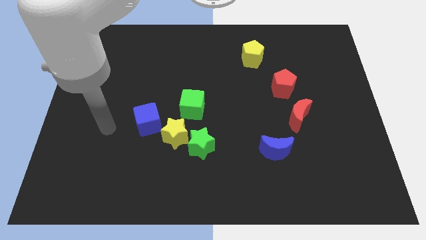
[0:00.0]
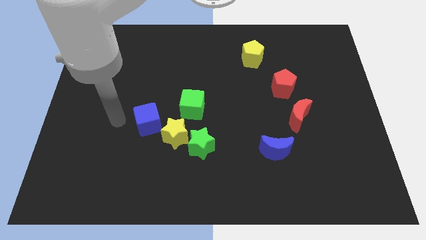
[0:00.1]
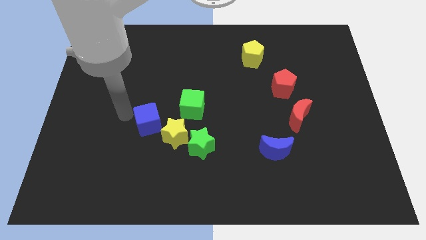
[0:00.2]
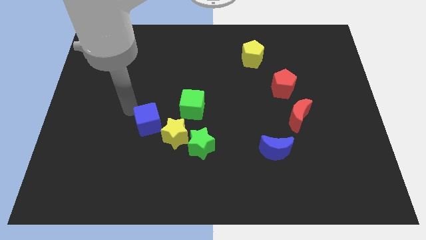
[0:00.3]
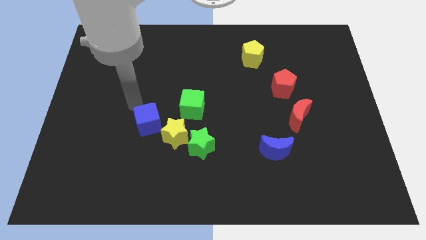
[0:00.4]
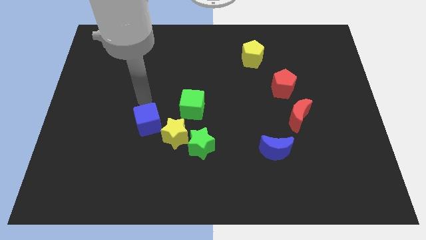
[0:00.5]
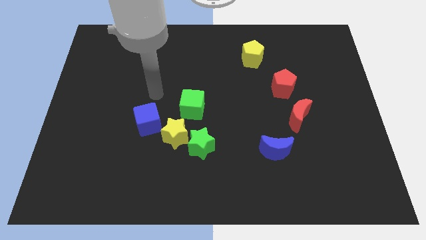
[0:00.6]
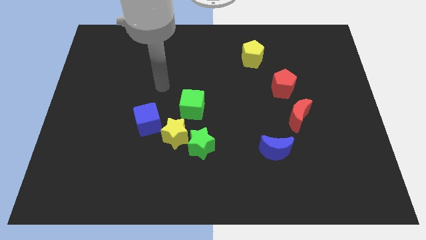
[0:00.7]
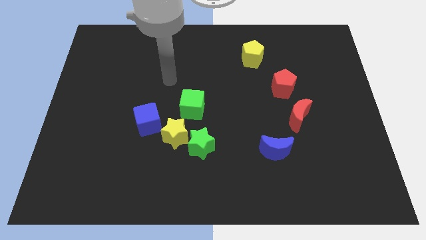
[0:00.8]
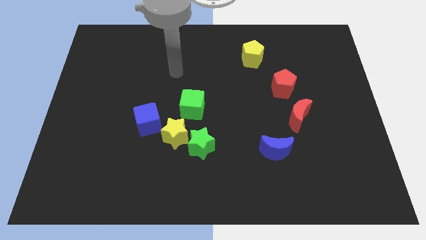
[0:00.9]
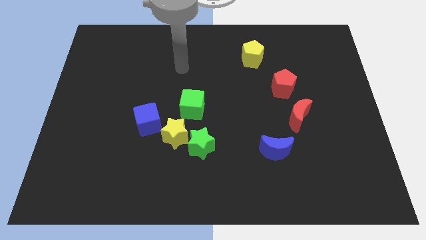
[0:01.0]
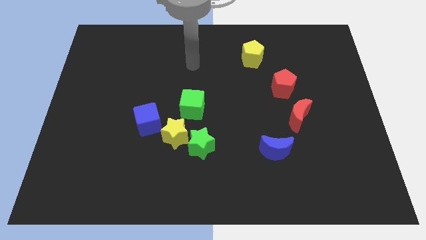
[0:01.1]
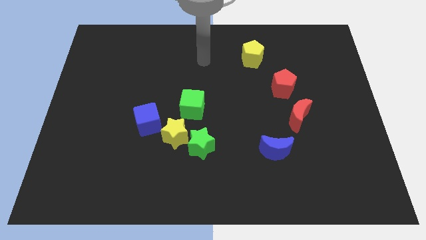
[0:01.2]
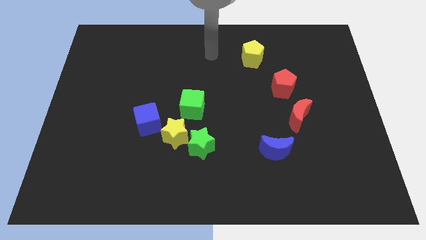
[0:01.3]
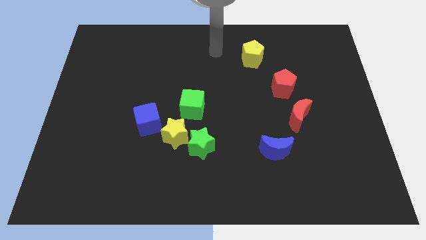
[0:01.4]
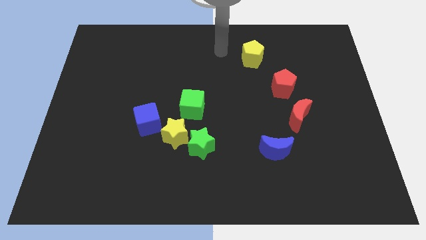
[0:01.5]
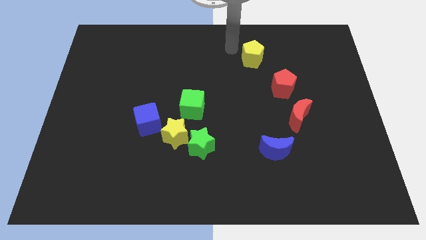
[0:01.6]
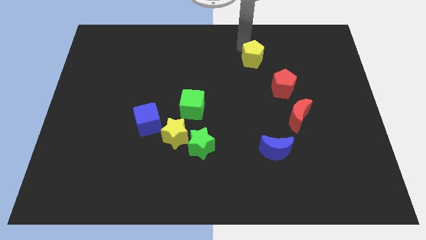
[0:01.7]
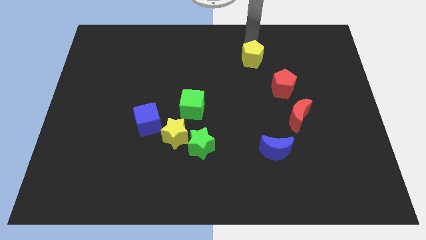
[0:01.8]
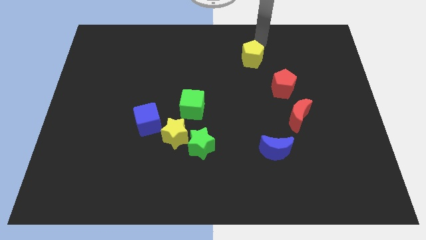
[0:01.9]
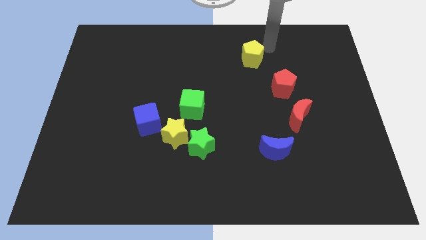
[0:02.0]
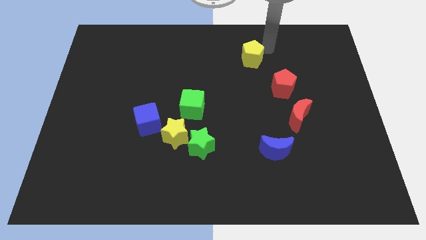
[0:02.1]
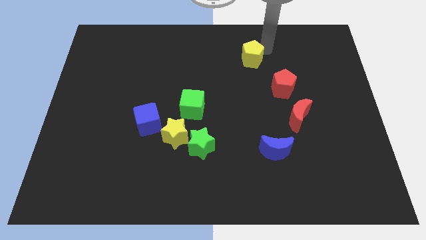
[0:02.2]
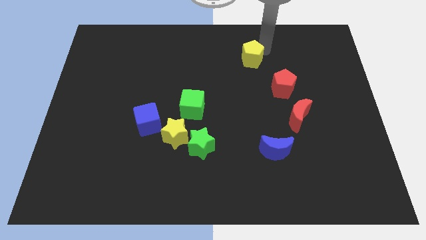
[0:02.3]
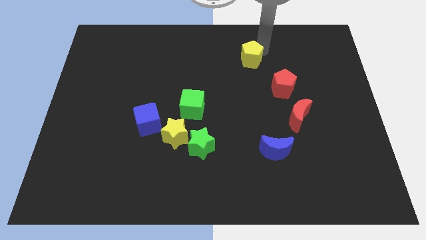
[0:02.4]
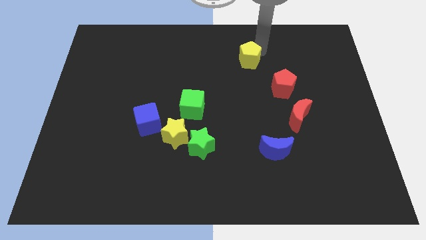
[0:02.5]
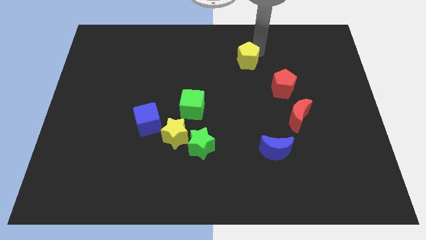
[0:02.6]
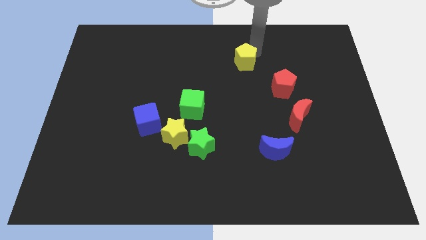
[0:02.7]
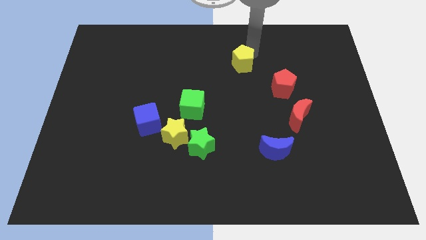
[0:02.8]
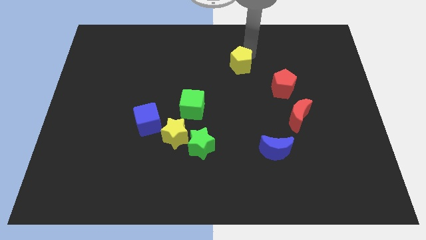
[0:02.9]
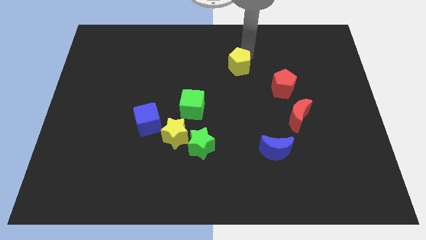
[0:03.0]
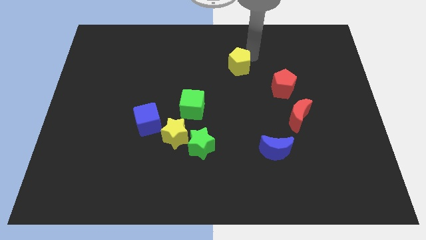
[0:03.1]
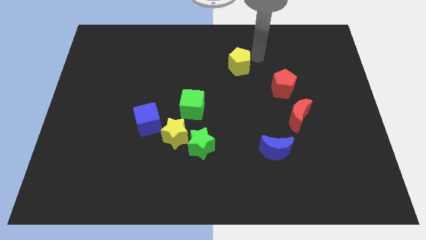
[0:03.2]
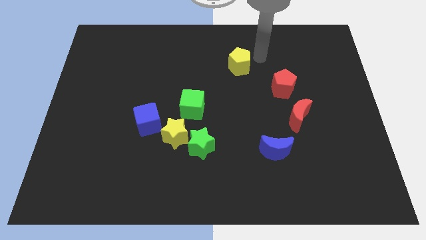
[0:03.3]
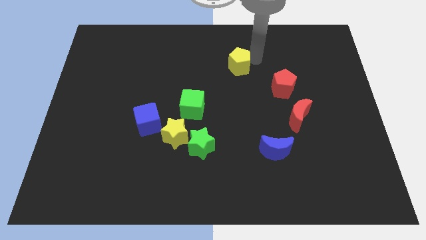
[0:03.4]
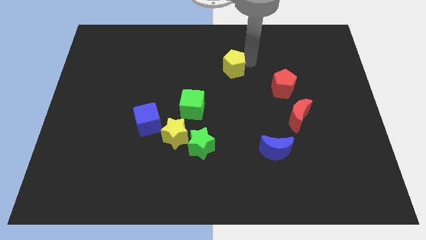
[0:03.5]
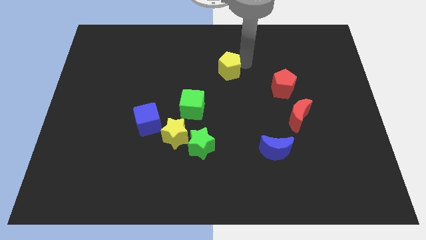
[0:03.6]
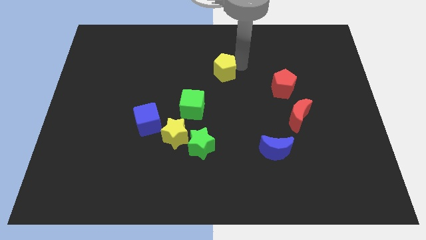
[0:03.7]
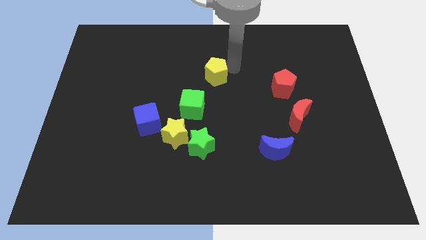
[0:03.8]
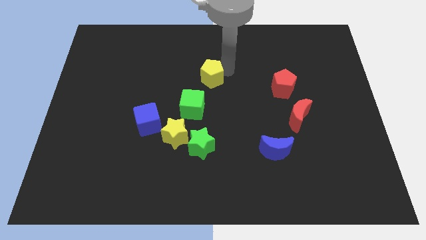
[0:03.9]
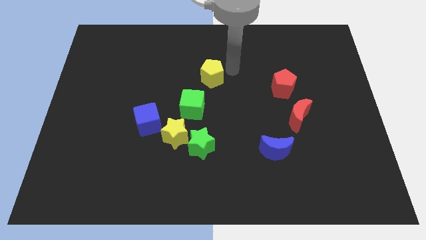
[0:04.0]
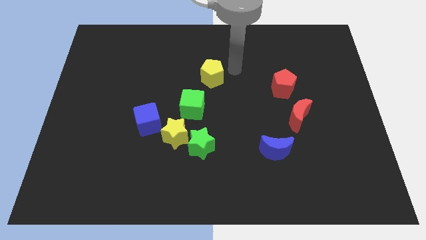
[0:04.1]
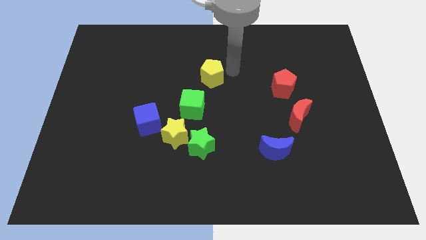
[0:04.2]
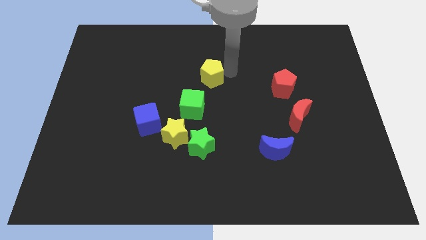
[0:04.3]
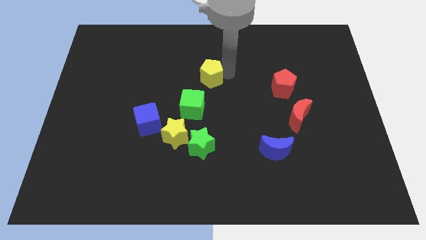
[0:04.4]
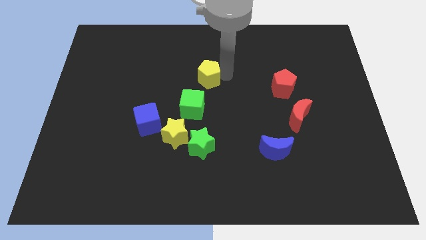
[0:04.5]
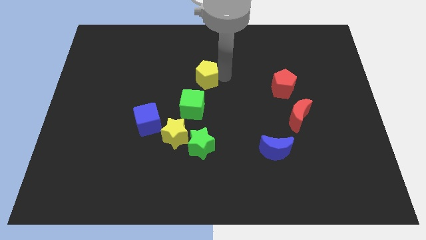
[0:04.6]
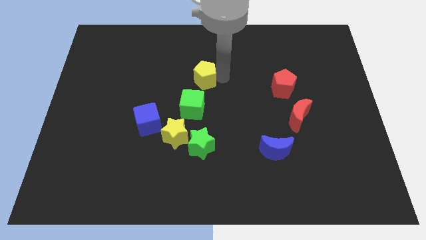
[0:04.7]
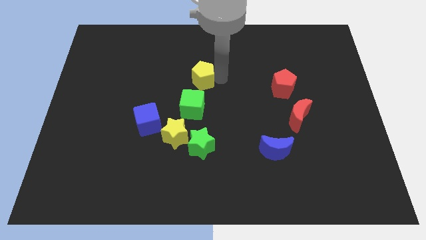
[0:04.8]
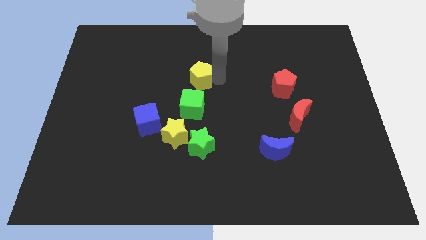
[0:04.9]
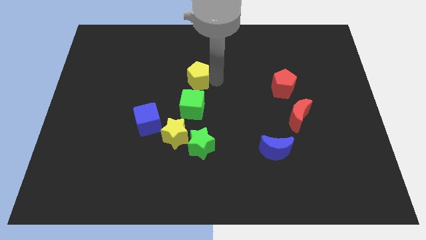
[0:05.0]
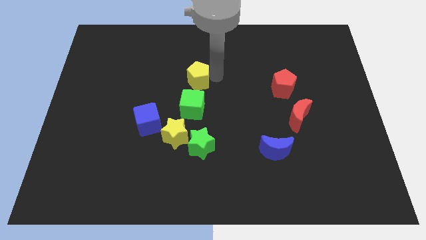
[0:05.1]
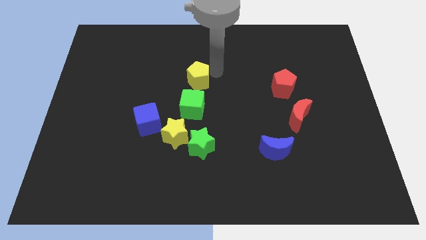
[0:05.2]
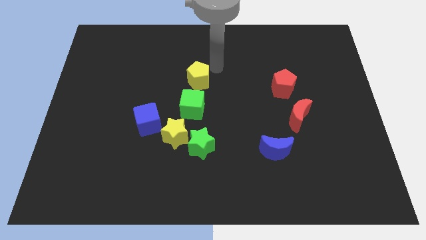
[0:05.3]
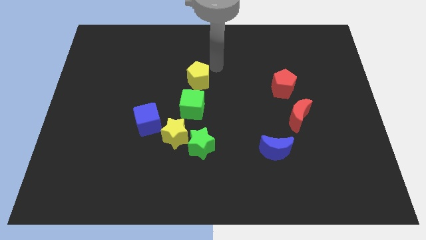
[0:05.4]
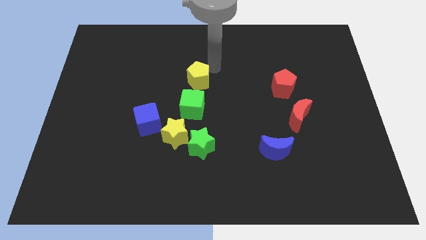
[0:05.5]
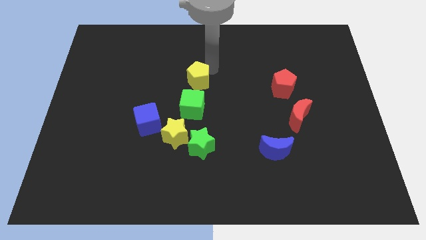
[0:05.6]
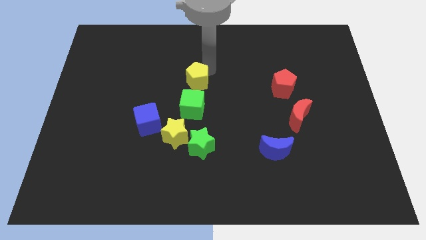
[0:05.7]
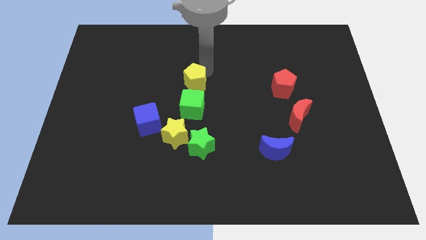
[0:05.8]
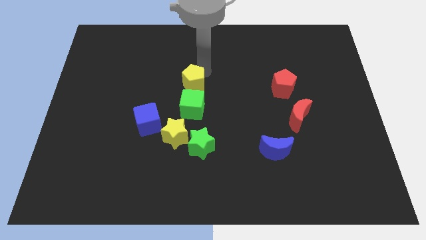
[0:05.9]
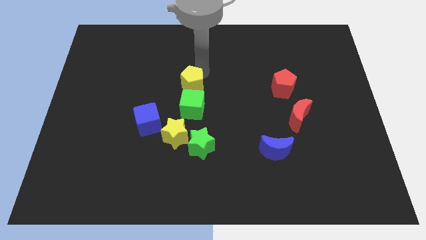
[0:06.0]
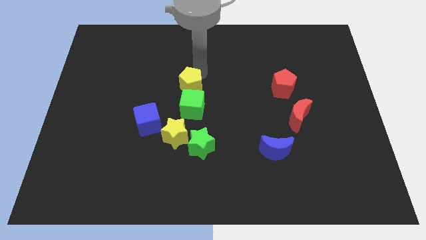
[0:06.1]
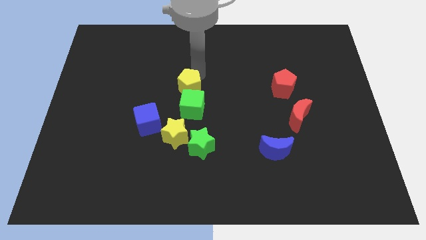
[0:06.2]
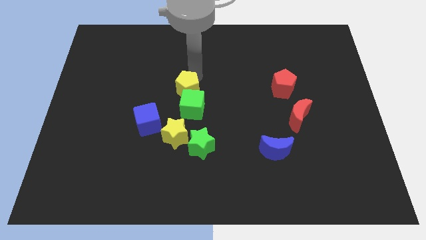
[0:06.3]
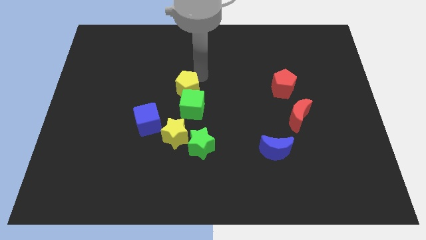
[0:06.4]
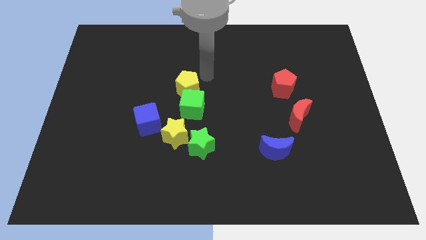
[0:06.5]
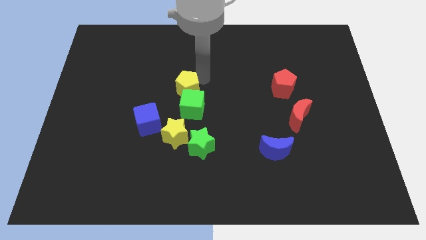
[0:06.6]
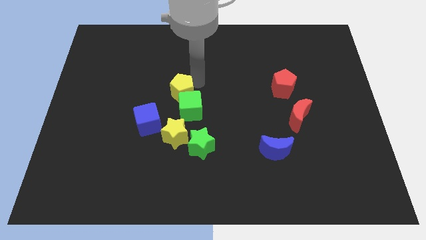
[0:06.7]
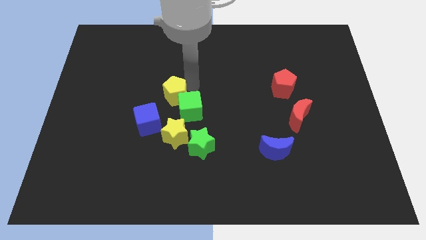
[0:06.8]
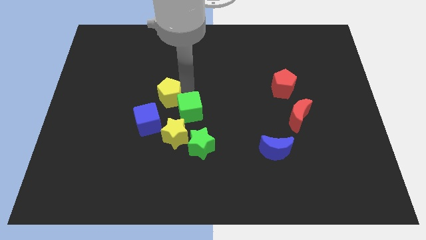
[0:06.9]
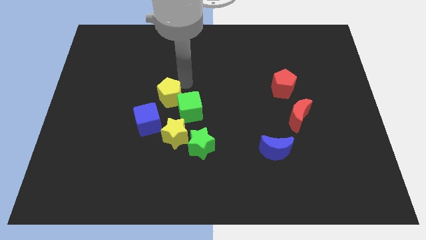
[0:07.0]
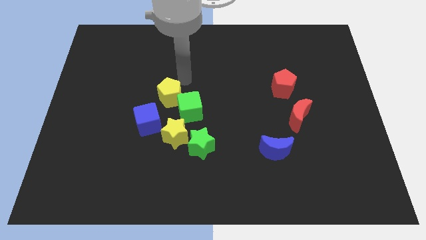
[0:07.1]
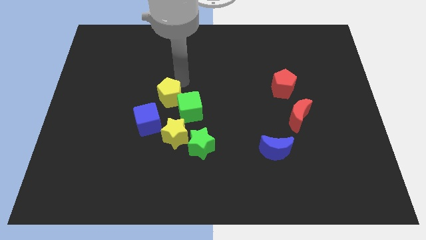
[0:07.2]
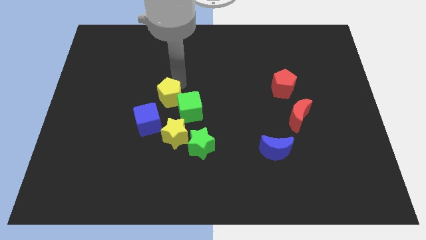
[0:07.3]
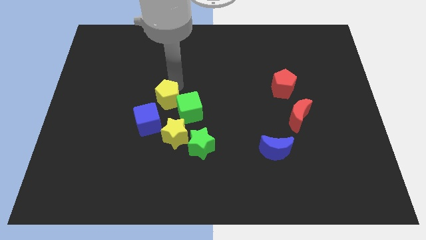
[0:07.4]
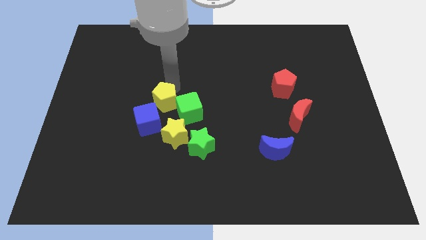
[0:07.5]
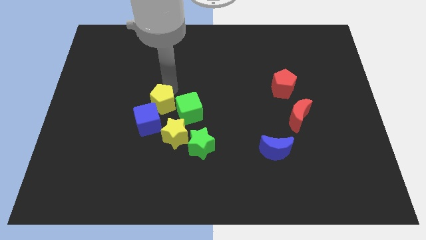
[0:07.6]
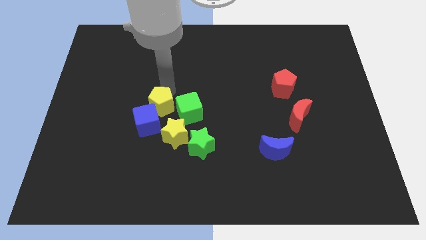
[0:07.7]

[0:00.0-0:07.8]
move the yellow pentagon close to the blue cube
